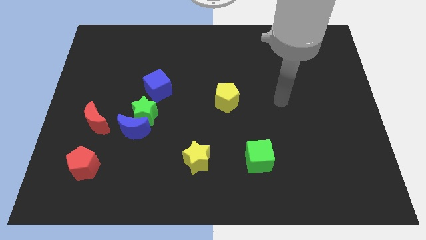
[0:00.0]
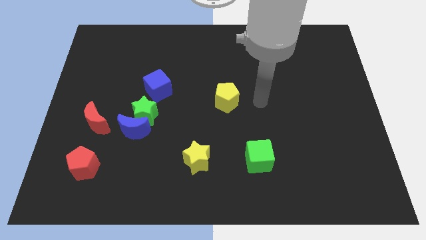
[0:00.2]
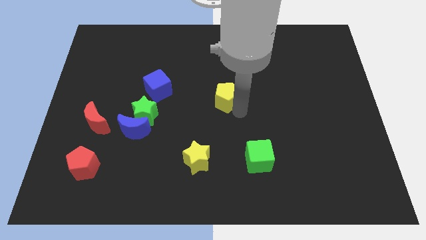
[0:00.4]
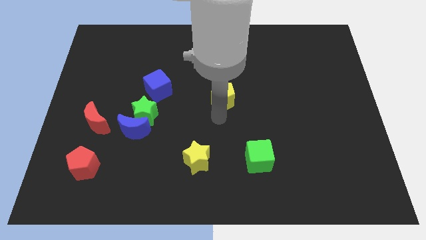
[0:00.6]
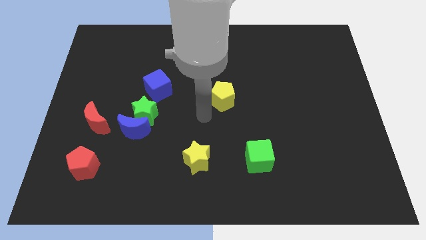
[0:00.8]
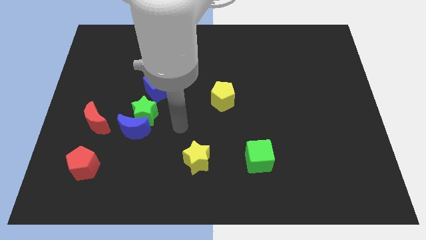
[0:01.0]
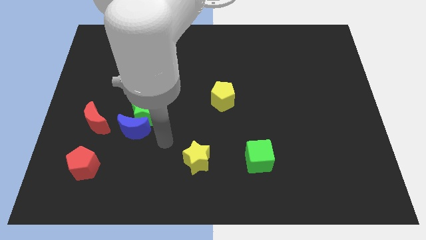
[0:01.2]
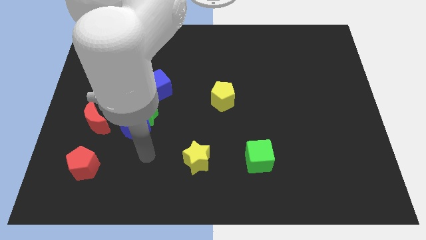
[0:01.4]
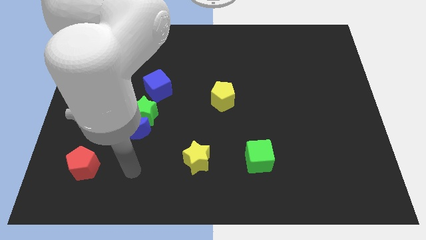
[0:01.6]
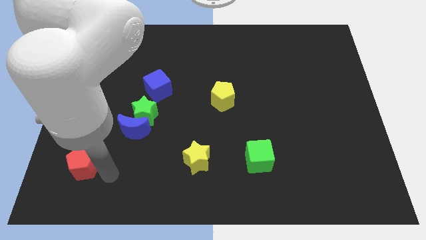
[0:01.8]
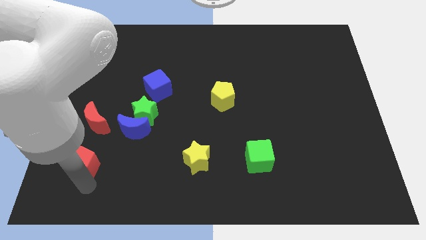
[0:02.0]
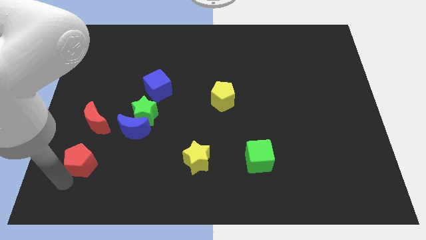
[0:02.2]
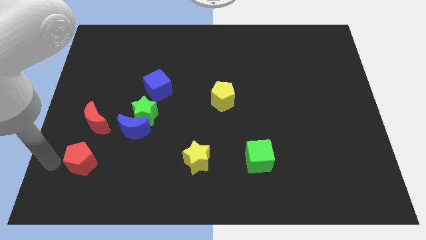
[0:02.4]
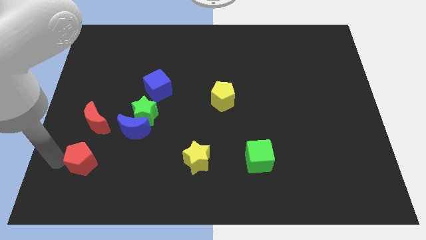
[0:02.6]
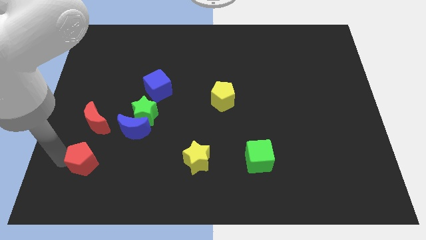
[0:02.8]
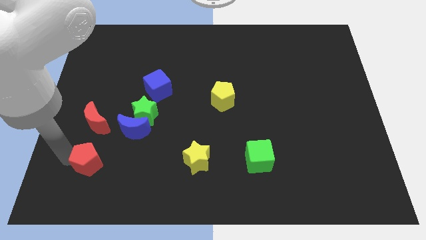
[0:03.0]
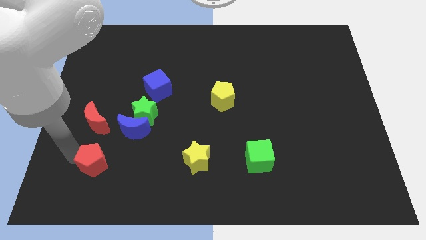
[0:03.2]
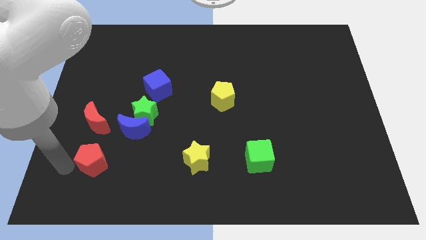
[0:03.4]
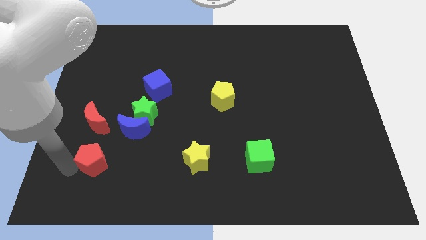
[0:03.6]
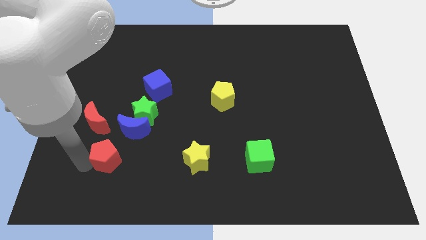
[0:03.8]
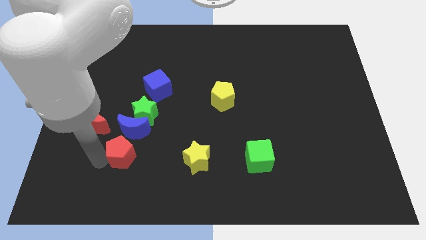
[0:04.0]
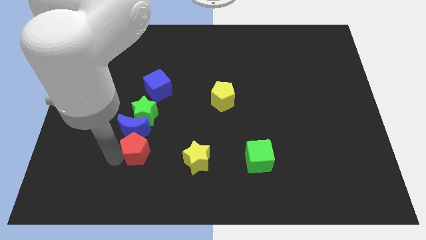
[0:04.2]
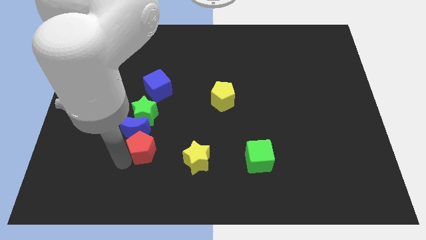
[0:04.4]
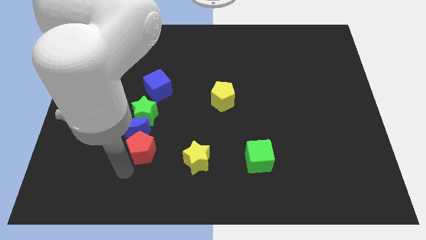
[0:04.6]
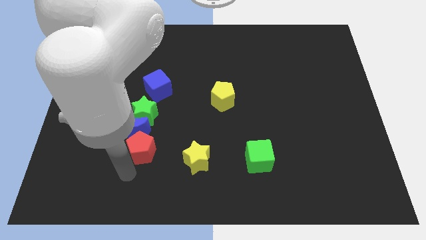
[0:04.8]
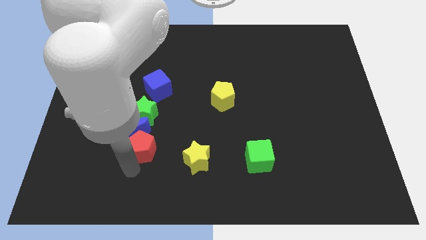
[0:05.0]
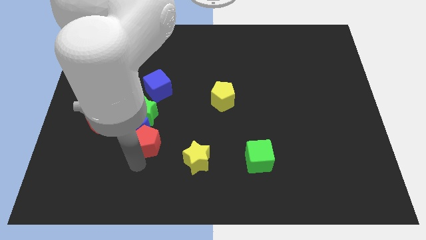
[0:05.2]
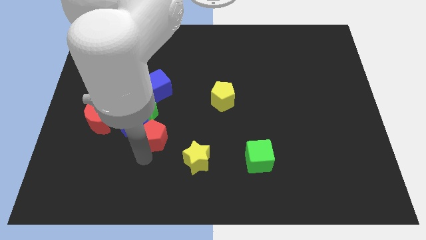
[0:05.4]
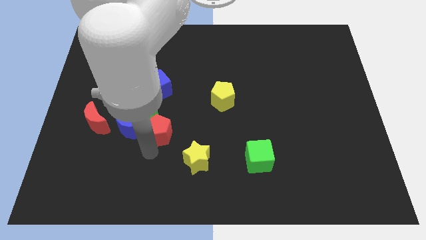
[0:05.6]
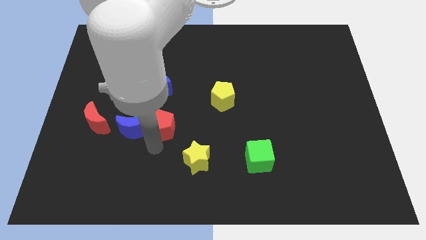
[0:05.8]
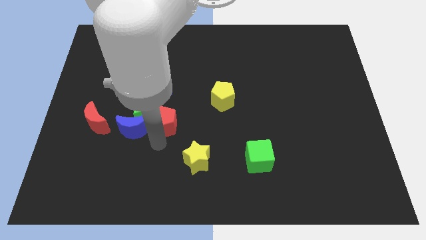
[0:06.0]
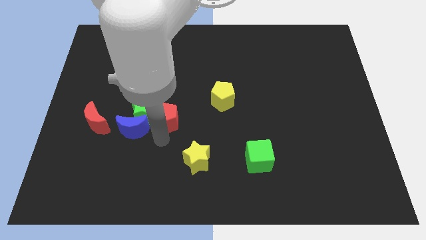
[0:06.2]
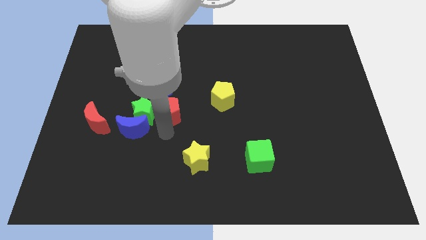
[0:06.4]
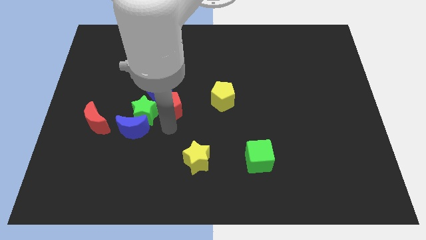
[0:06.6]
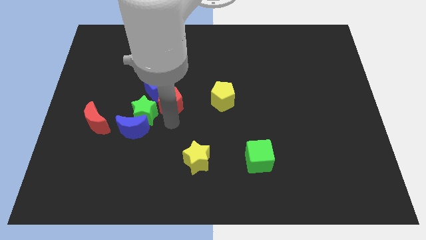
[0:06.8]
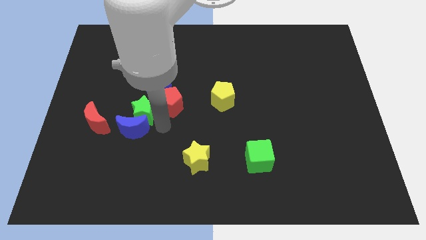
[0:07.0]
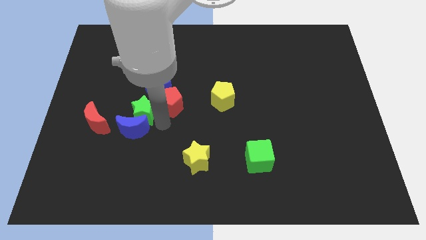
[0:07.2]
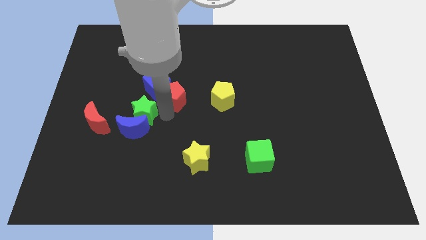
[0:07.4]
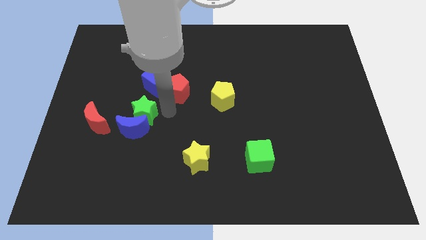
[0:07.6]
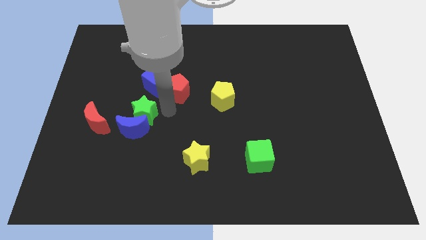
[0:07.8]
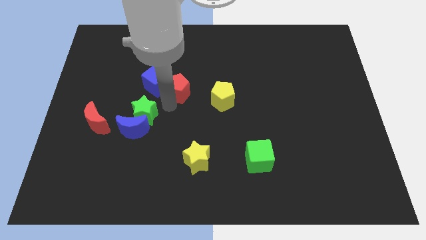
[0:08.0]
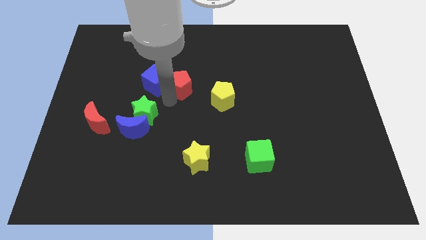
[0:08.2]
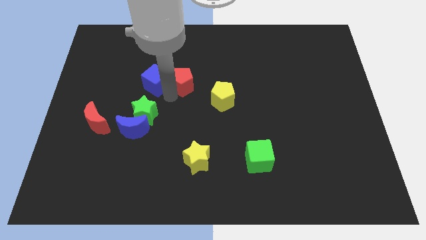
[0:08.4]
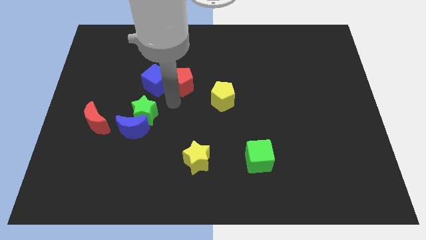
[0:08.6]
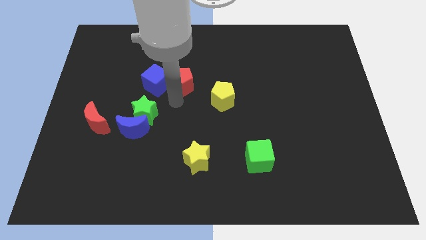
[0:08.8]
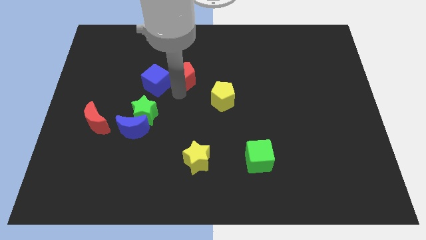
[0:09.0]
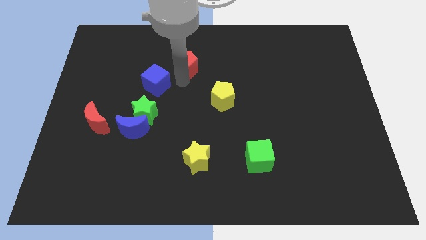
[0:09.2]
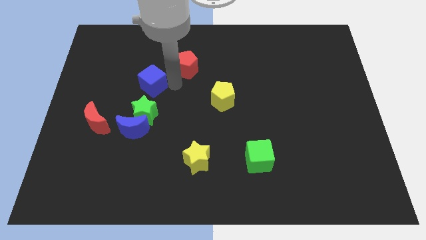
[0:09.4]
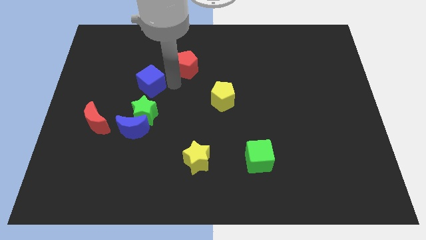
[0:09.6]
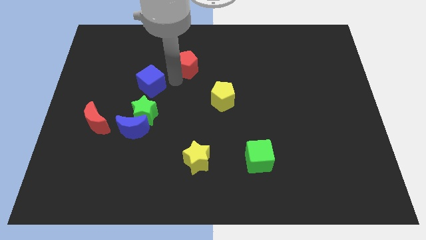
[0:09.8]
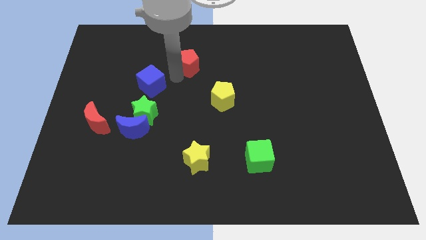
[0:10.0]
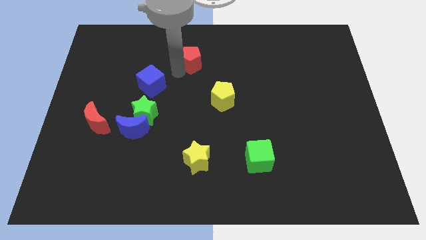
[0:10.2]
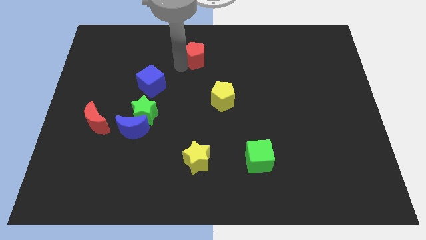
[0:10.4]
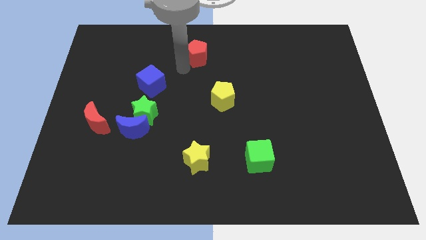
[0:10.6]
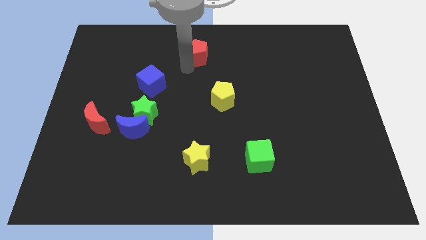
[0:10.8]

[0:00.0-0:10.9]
push the red pentagon to the towards your base

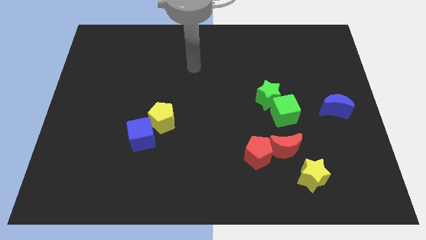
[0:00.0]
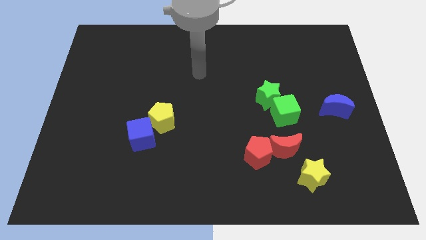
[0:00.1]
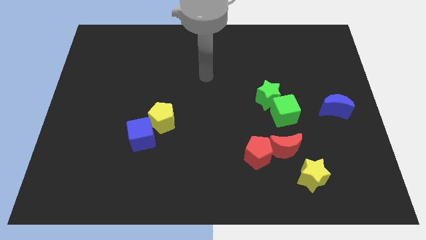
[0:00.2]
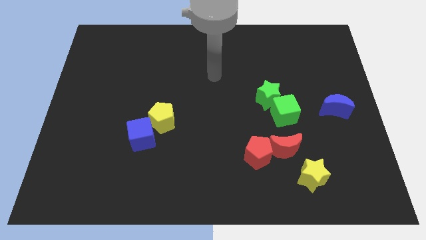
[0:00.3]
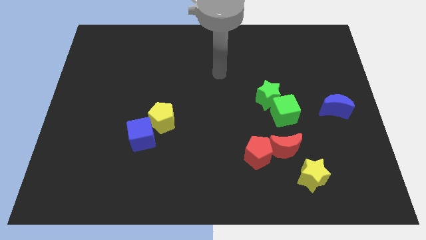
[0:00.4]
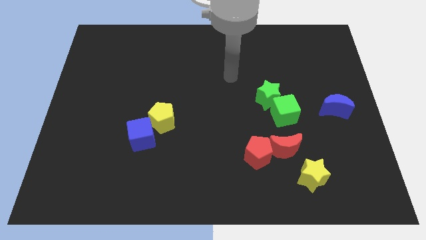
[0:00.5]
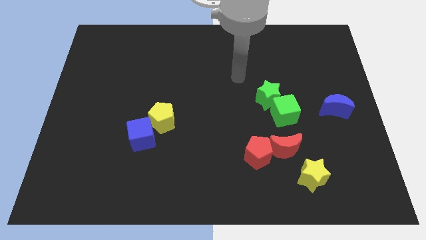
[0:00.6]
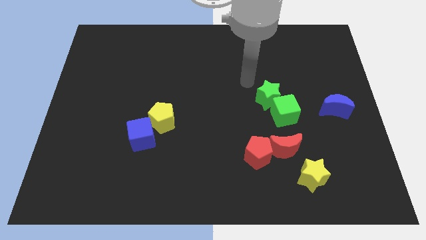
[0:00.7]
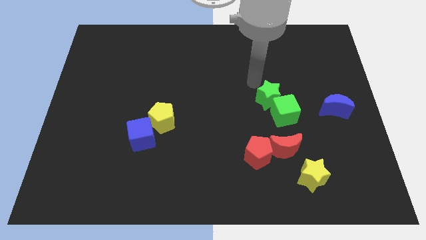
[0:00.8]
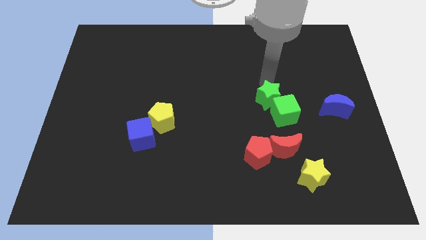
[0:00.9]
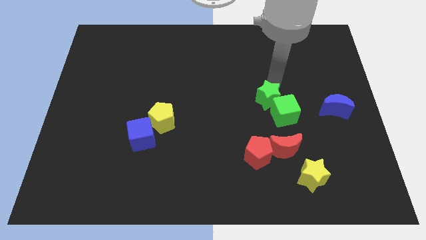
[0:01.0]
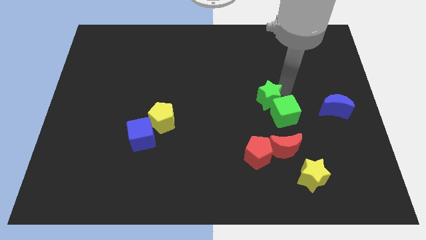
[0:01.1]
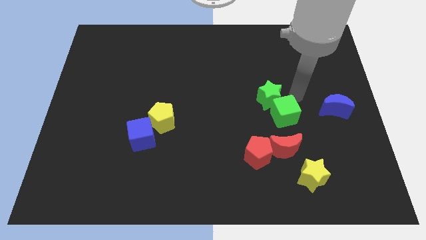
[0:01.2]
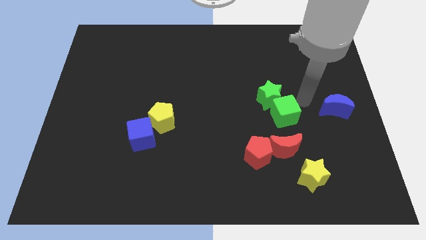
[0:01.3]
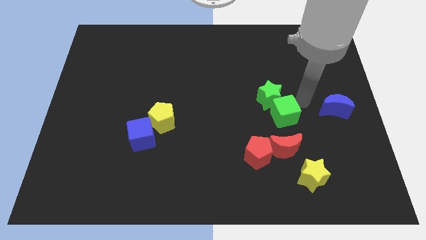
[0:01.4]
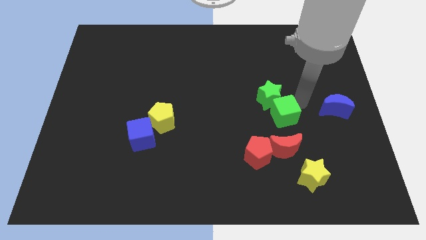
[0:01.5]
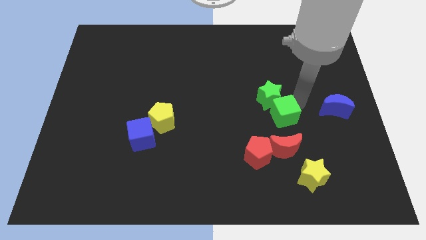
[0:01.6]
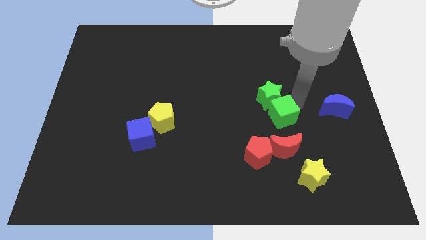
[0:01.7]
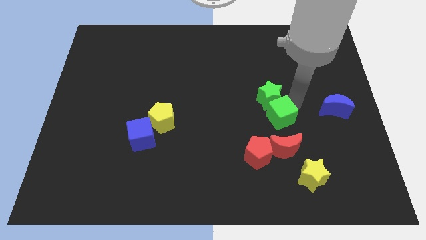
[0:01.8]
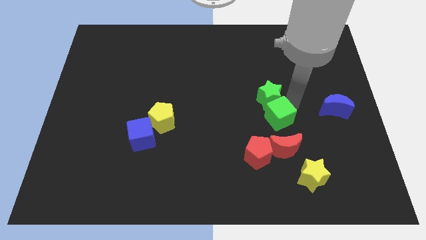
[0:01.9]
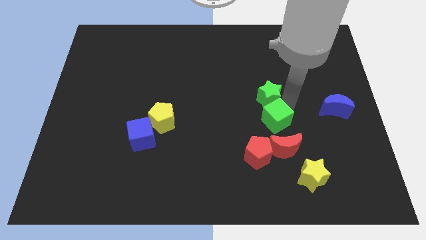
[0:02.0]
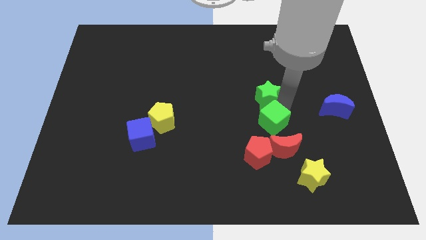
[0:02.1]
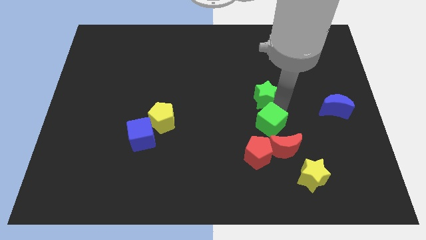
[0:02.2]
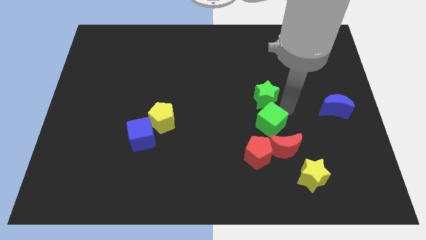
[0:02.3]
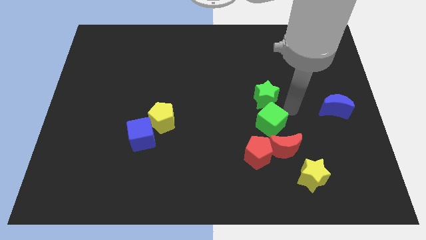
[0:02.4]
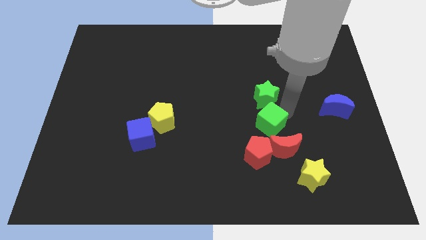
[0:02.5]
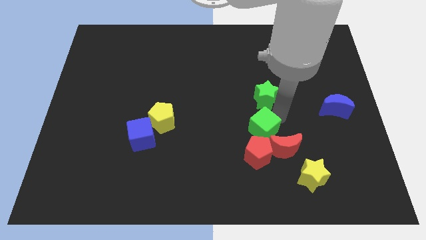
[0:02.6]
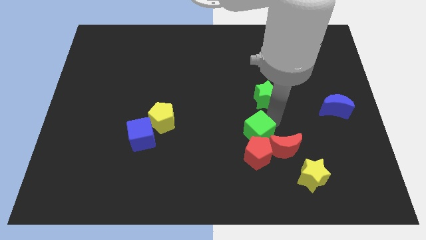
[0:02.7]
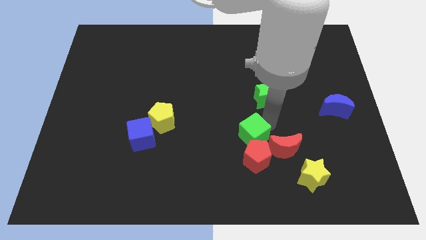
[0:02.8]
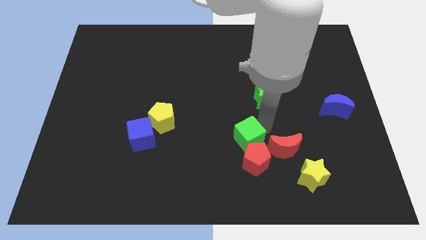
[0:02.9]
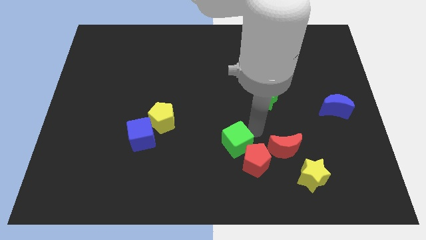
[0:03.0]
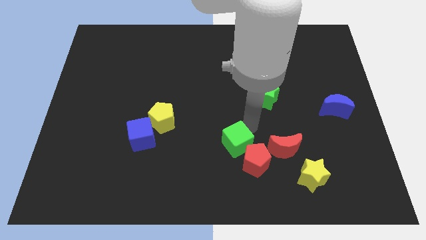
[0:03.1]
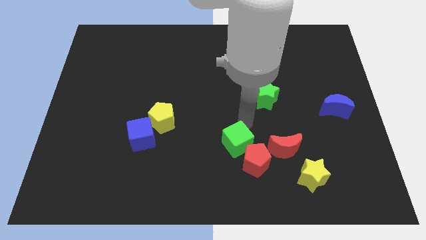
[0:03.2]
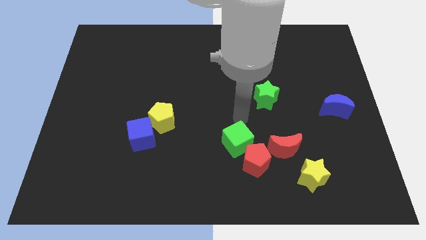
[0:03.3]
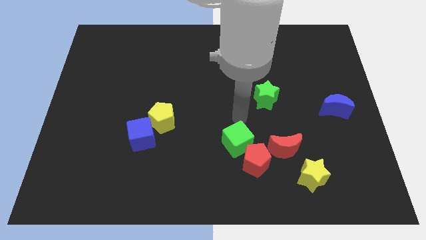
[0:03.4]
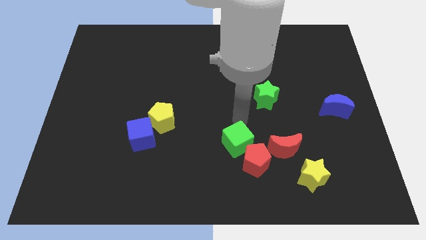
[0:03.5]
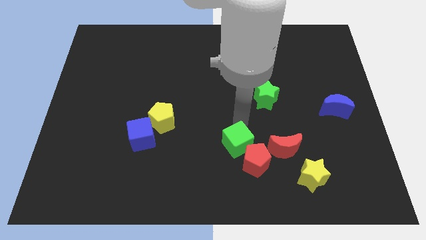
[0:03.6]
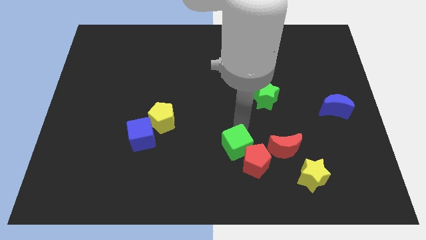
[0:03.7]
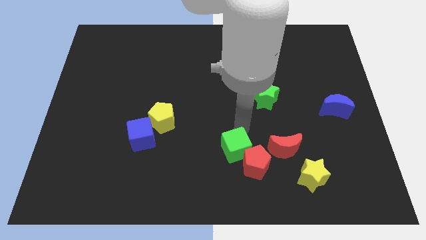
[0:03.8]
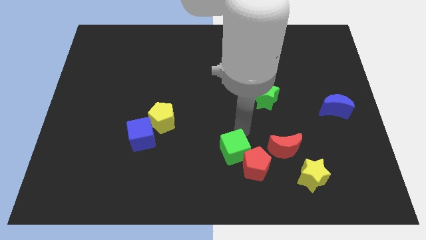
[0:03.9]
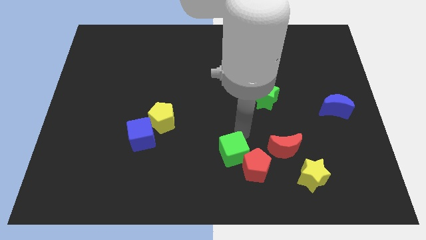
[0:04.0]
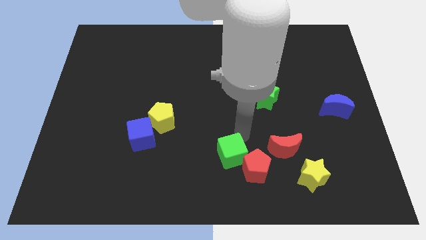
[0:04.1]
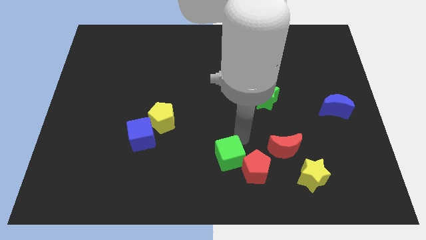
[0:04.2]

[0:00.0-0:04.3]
push the green cube to the bottom side
